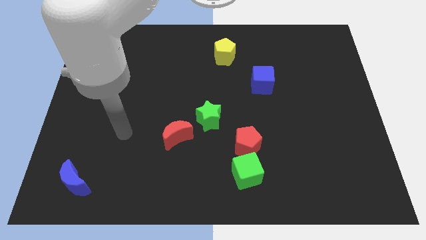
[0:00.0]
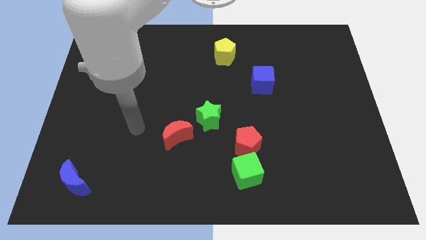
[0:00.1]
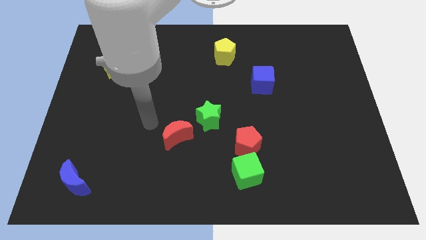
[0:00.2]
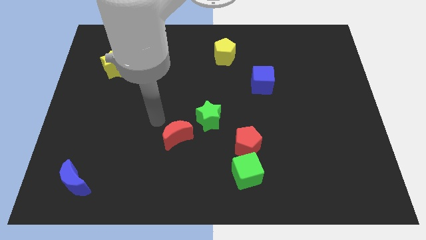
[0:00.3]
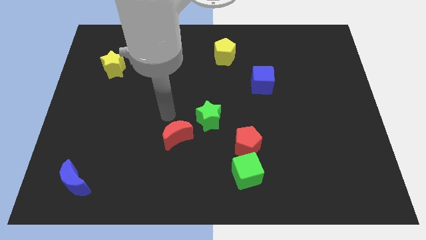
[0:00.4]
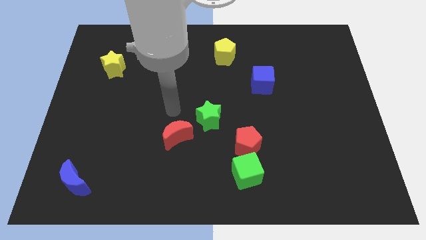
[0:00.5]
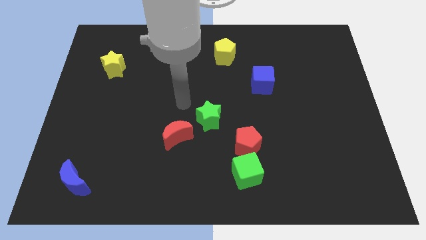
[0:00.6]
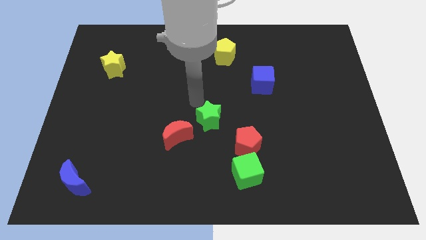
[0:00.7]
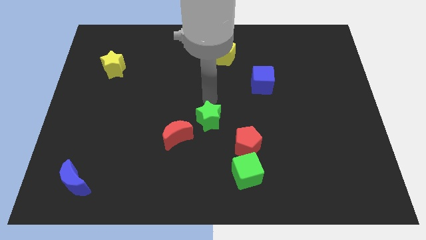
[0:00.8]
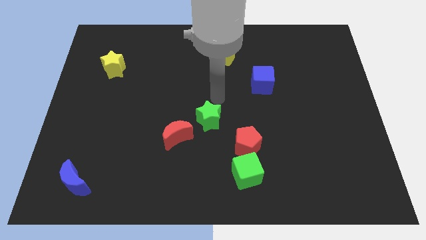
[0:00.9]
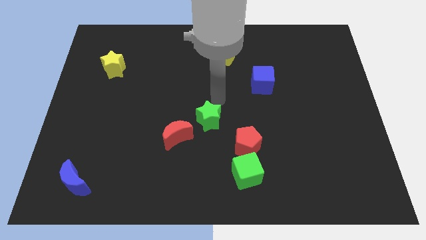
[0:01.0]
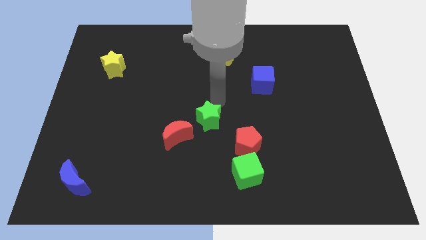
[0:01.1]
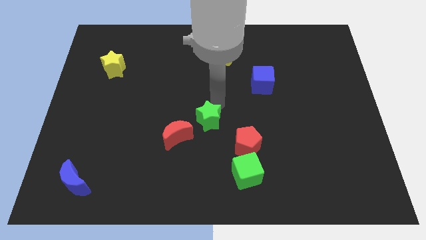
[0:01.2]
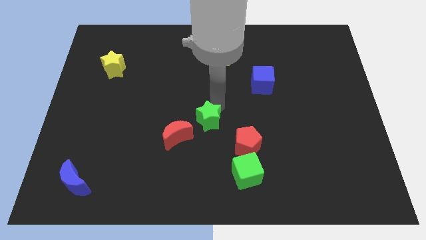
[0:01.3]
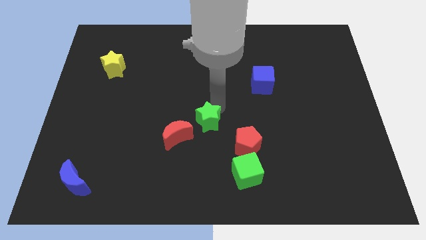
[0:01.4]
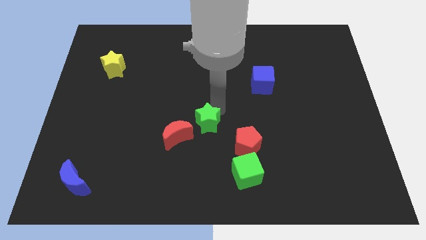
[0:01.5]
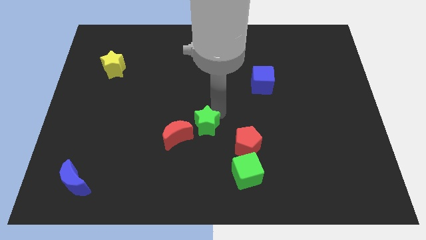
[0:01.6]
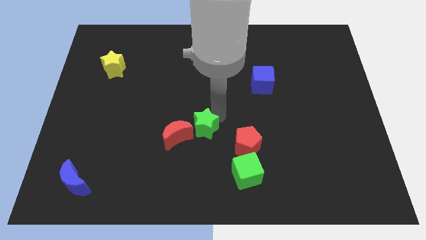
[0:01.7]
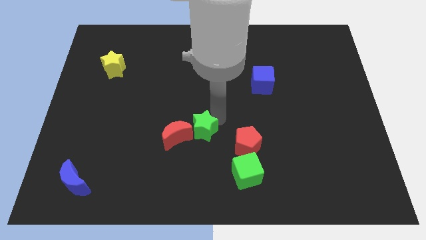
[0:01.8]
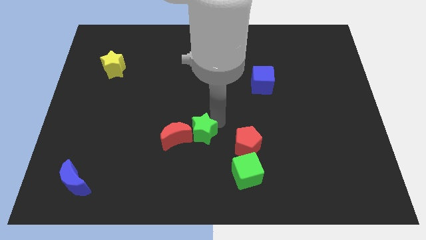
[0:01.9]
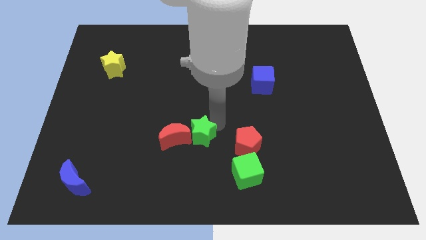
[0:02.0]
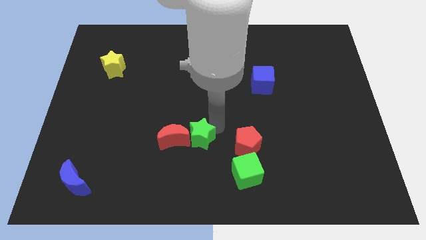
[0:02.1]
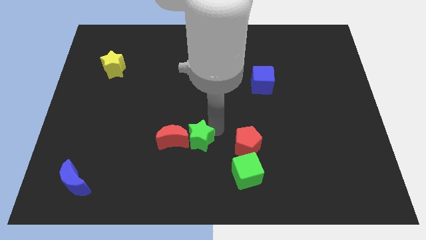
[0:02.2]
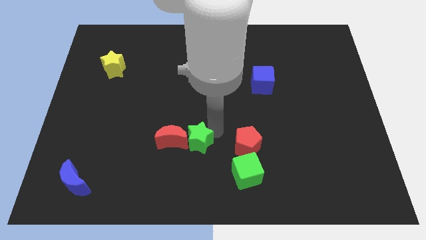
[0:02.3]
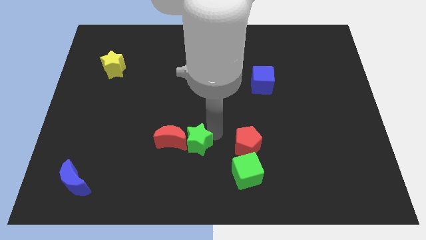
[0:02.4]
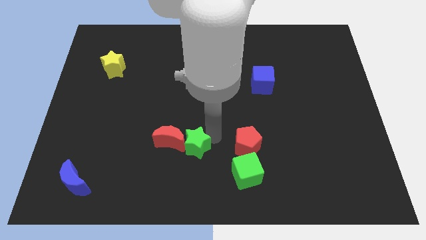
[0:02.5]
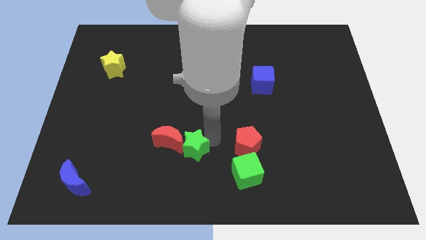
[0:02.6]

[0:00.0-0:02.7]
slightly slide the green star downwards and to the left diagonally

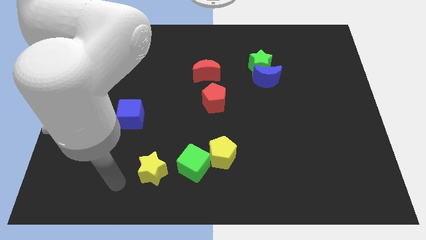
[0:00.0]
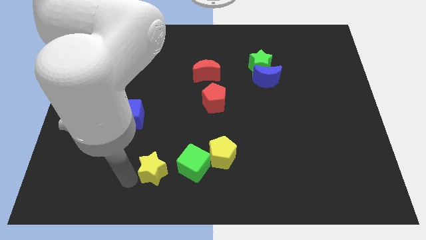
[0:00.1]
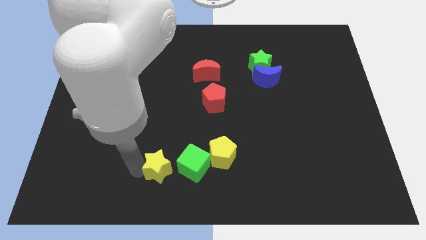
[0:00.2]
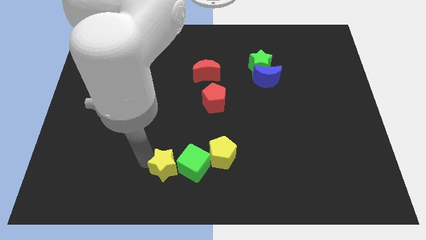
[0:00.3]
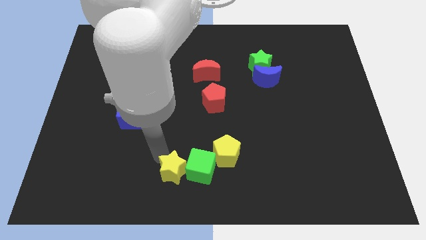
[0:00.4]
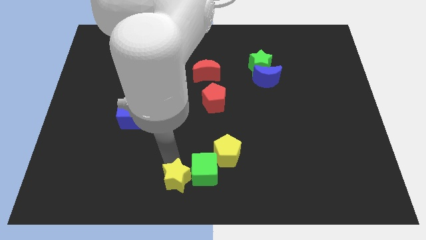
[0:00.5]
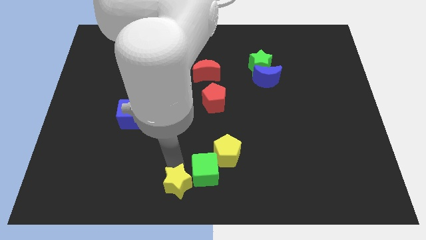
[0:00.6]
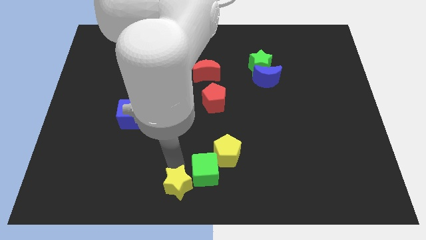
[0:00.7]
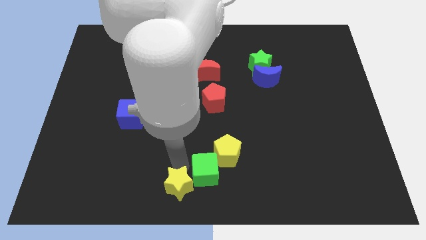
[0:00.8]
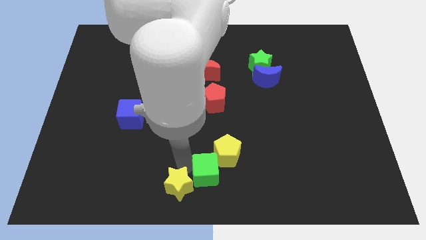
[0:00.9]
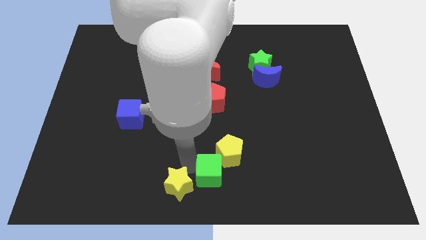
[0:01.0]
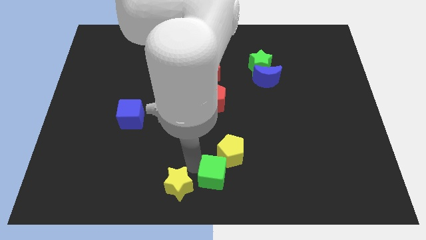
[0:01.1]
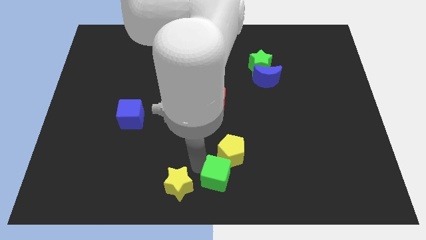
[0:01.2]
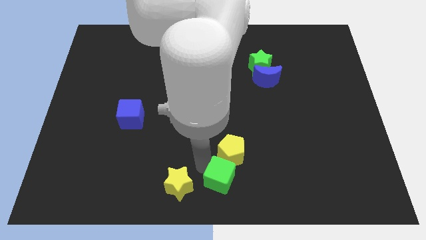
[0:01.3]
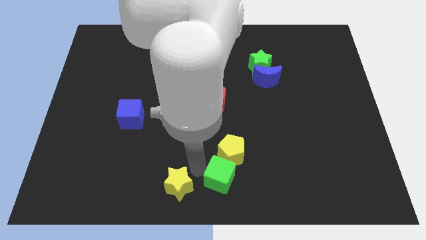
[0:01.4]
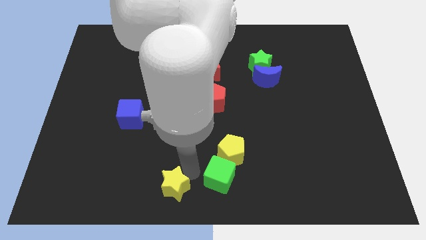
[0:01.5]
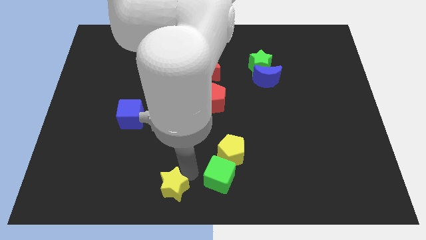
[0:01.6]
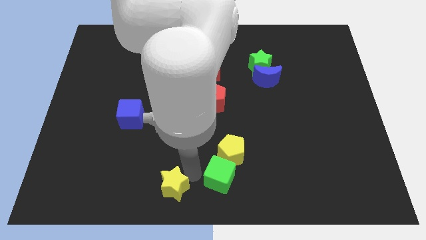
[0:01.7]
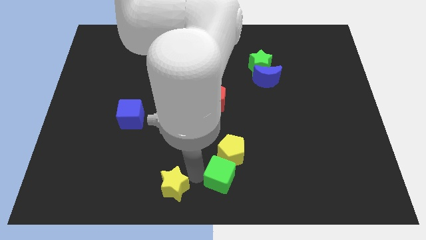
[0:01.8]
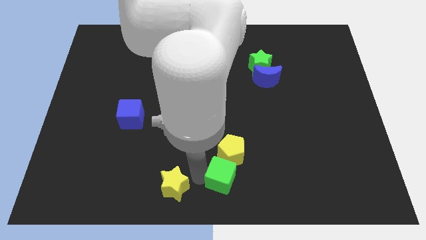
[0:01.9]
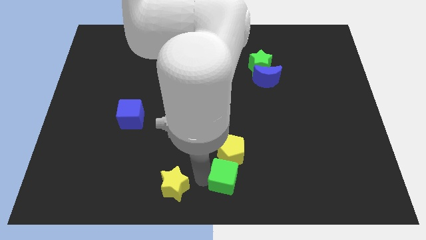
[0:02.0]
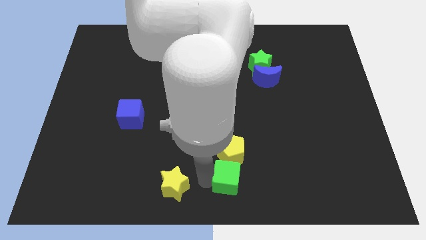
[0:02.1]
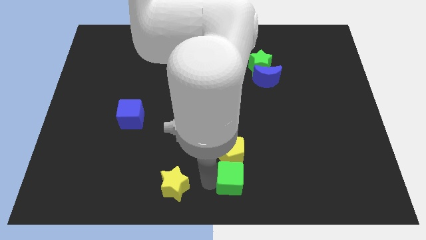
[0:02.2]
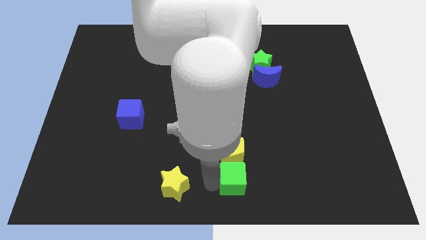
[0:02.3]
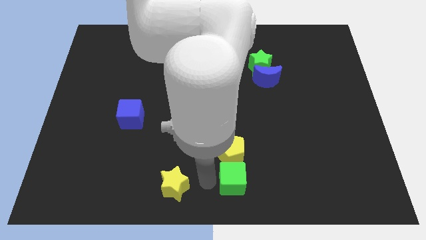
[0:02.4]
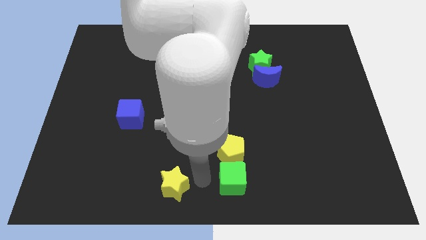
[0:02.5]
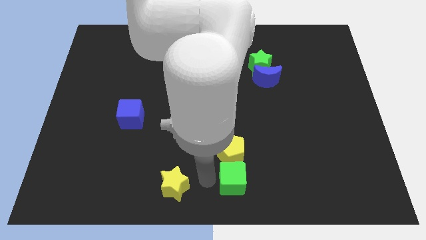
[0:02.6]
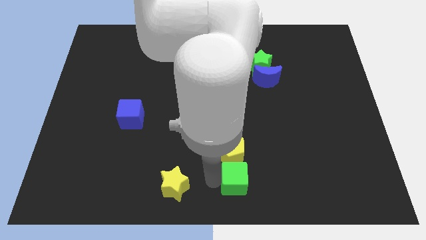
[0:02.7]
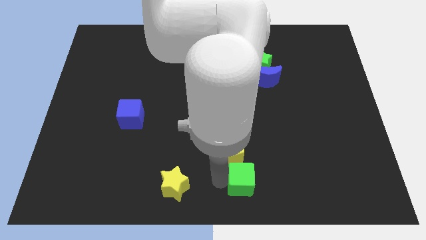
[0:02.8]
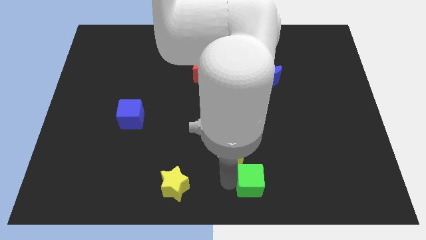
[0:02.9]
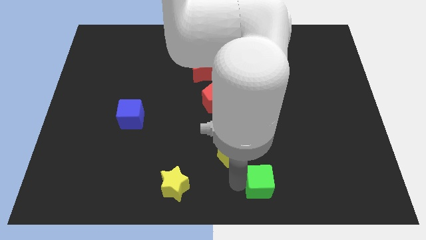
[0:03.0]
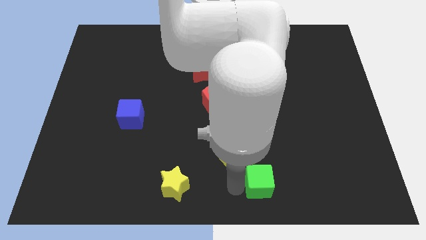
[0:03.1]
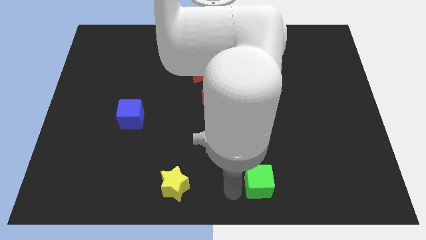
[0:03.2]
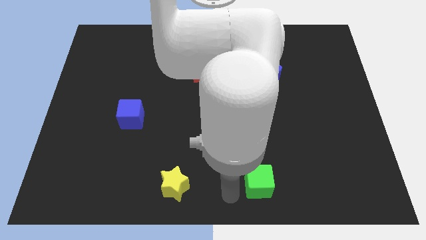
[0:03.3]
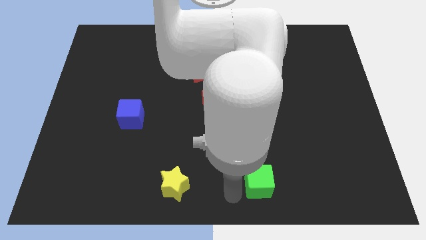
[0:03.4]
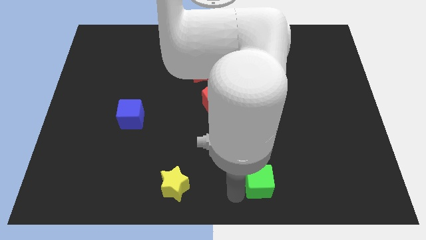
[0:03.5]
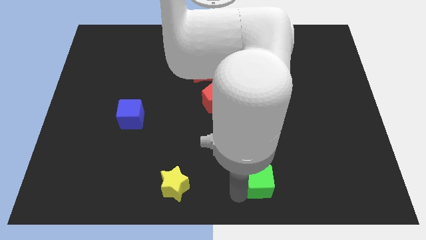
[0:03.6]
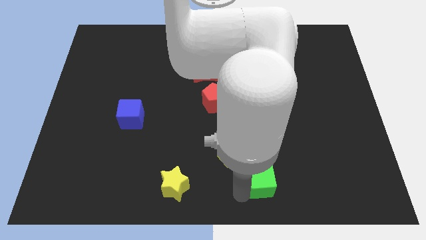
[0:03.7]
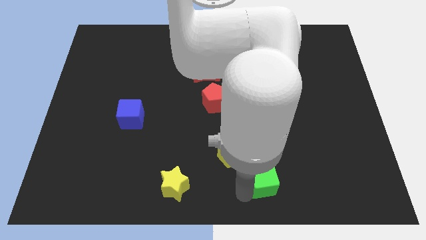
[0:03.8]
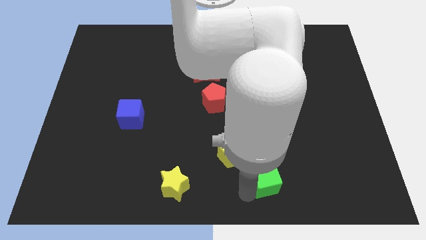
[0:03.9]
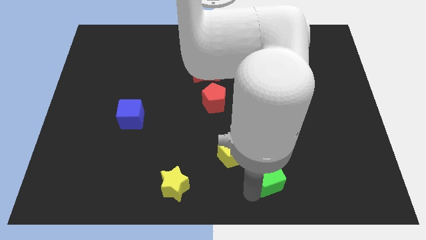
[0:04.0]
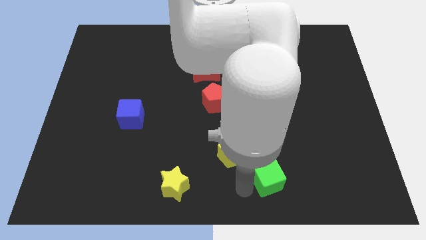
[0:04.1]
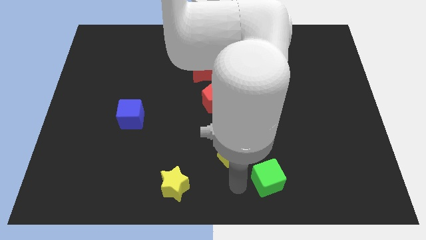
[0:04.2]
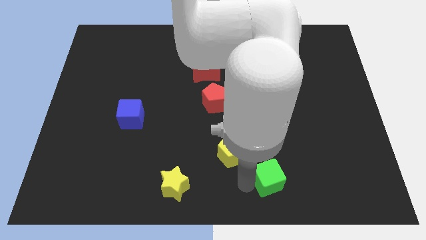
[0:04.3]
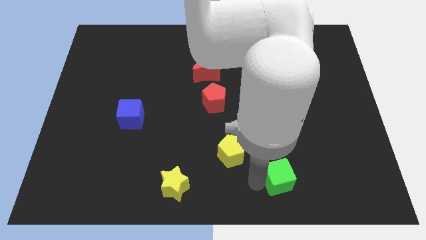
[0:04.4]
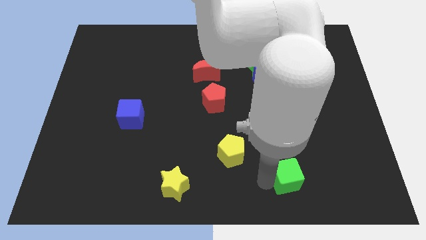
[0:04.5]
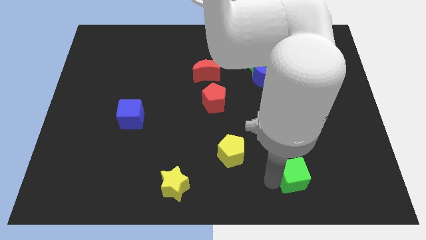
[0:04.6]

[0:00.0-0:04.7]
slide the green cube right

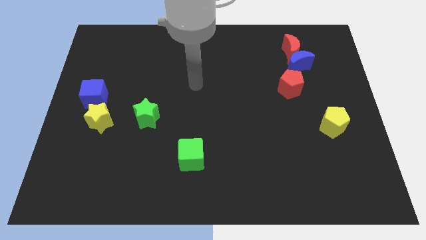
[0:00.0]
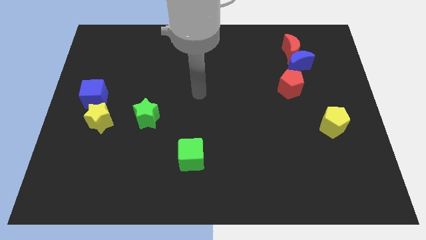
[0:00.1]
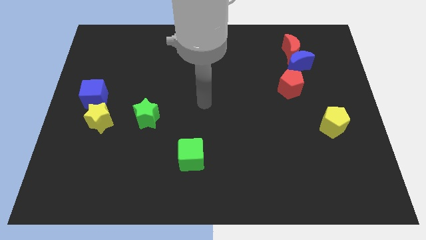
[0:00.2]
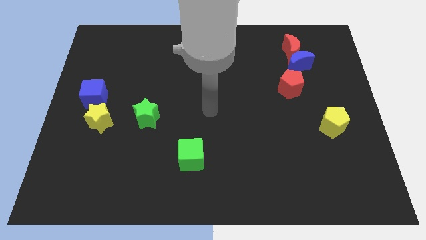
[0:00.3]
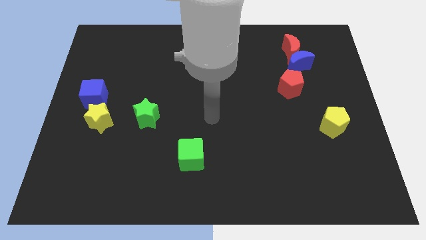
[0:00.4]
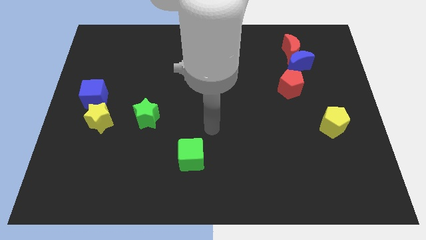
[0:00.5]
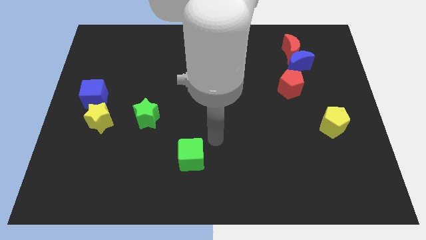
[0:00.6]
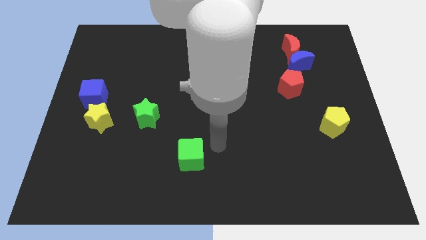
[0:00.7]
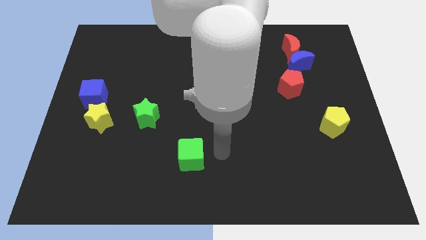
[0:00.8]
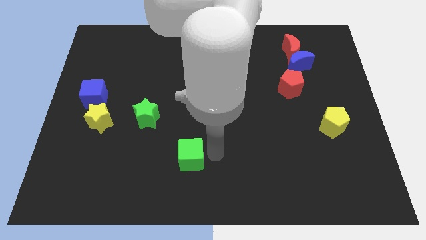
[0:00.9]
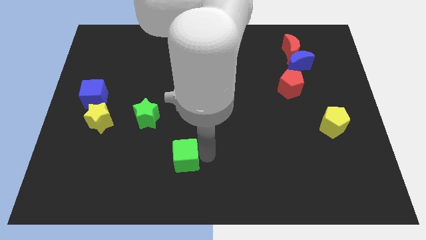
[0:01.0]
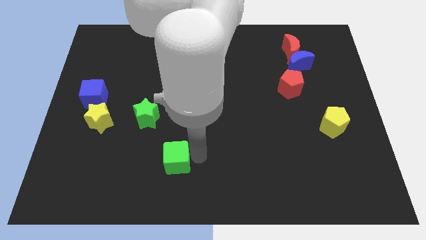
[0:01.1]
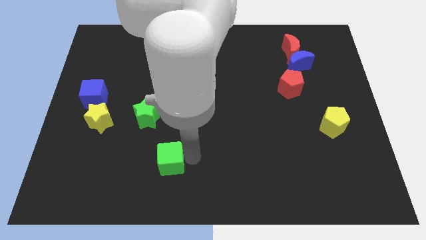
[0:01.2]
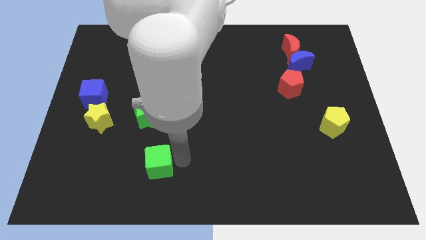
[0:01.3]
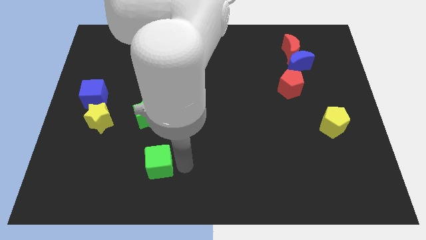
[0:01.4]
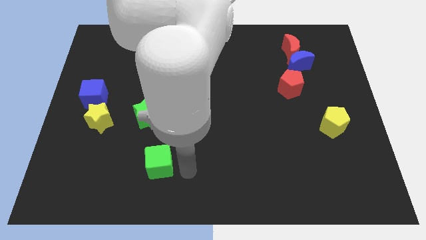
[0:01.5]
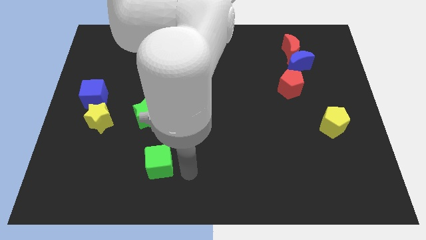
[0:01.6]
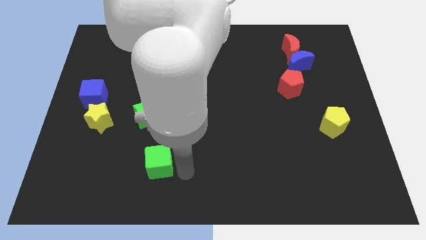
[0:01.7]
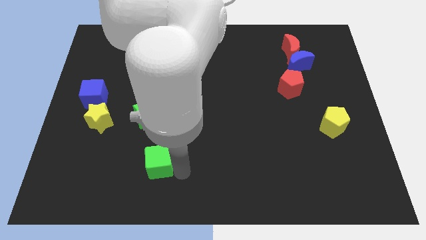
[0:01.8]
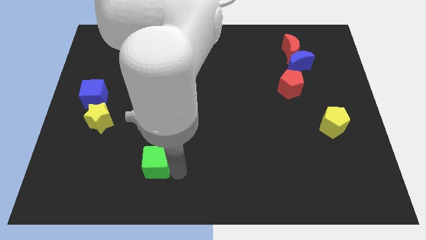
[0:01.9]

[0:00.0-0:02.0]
slightly push the green cube to the left
